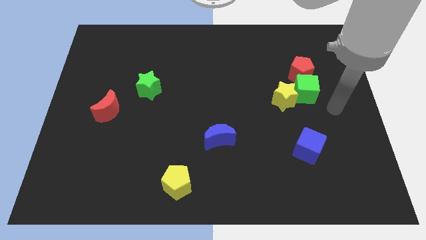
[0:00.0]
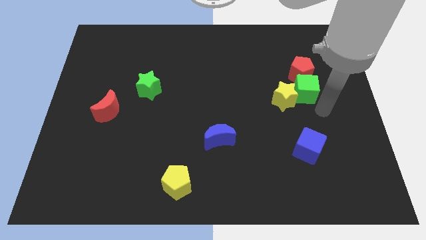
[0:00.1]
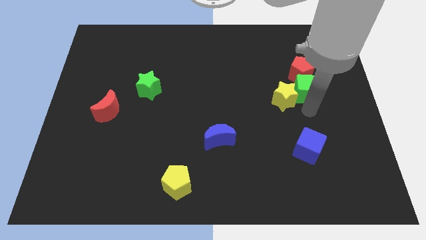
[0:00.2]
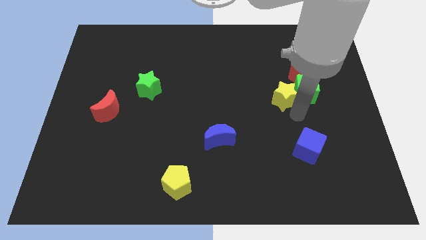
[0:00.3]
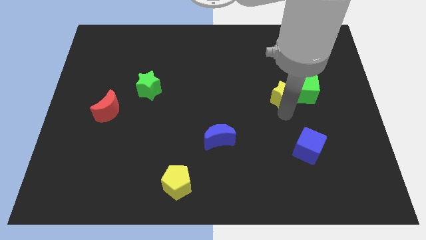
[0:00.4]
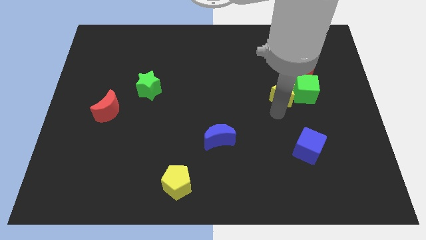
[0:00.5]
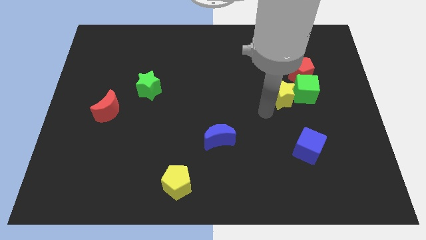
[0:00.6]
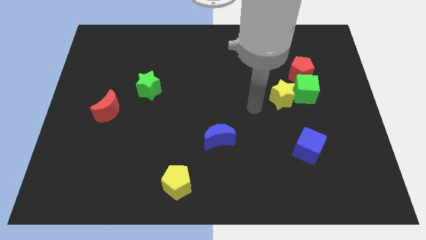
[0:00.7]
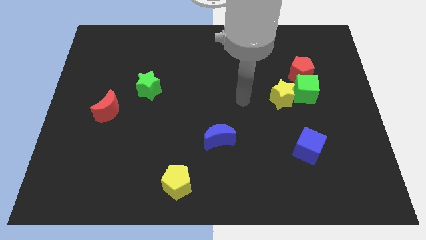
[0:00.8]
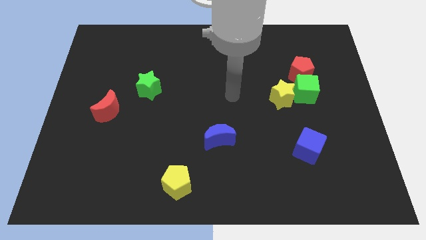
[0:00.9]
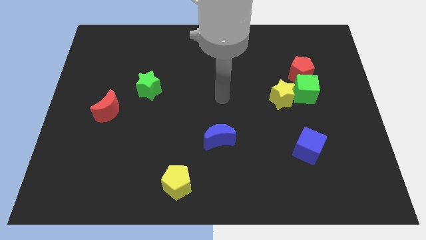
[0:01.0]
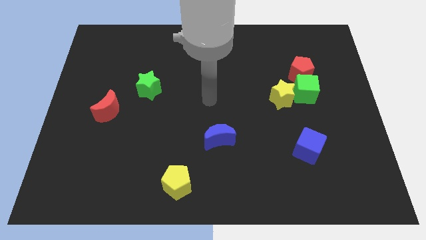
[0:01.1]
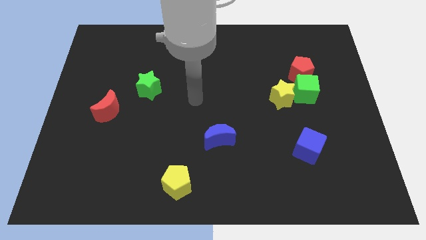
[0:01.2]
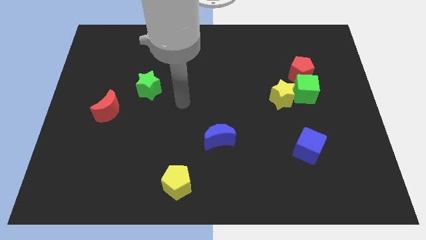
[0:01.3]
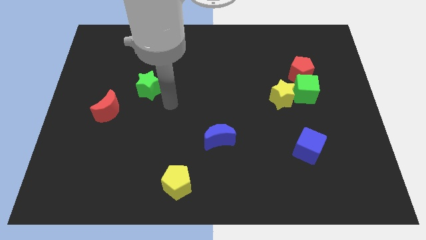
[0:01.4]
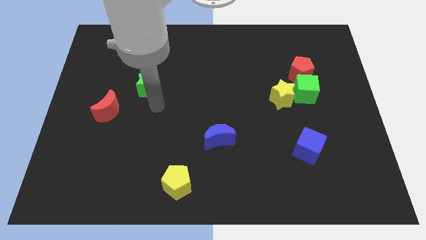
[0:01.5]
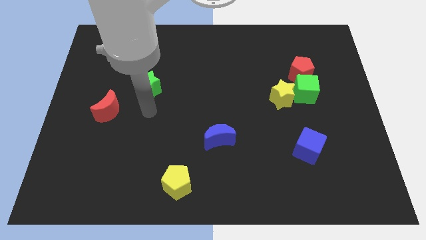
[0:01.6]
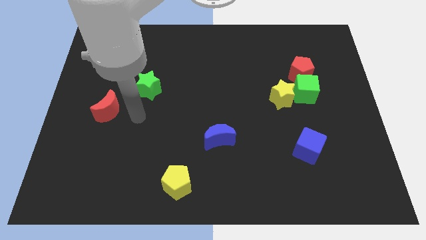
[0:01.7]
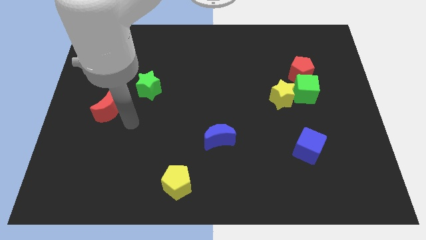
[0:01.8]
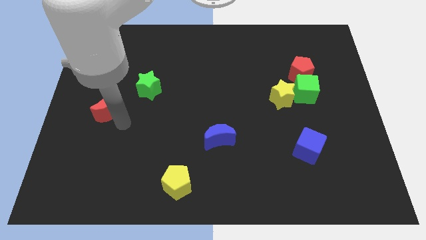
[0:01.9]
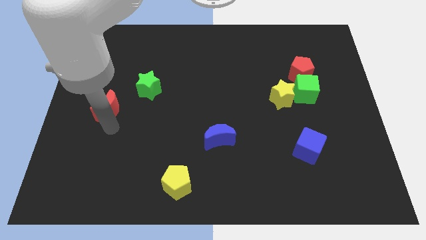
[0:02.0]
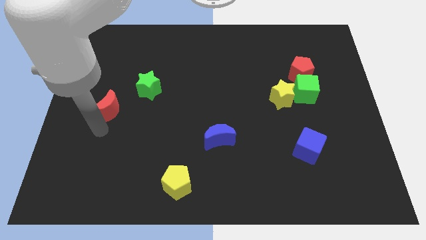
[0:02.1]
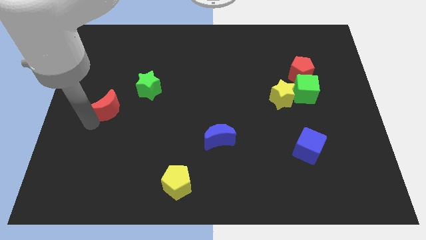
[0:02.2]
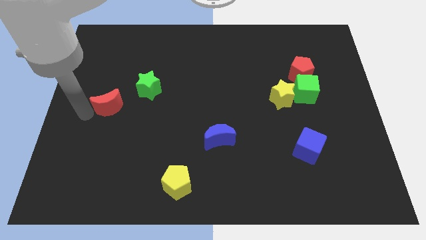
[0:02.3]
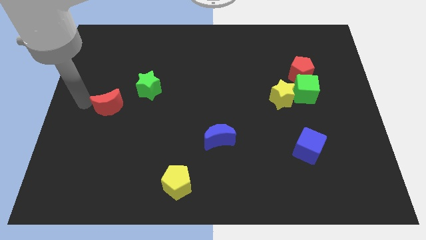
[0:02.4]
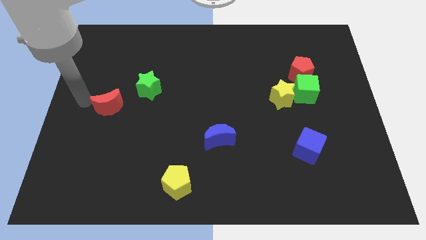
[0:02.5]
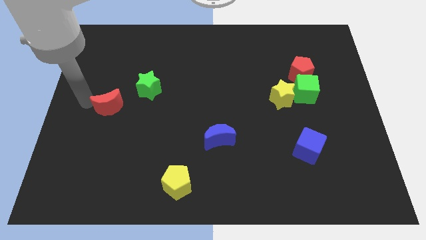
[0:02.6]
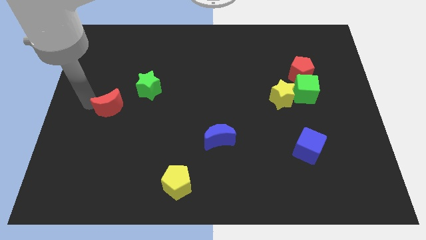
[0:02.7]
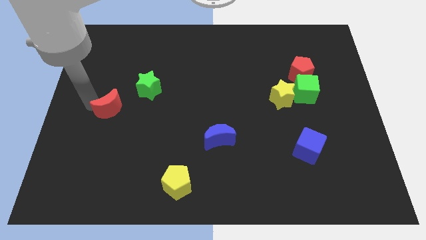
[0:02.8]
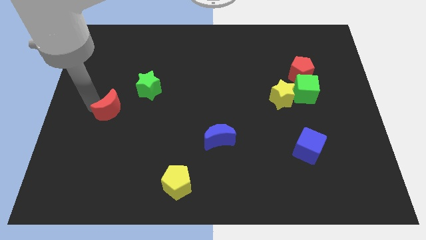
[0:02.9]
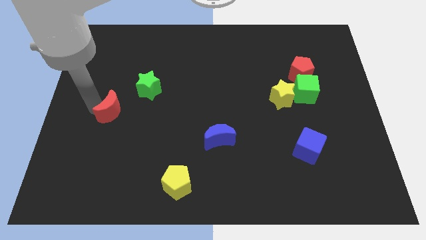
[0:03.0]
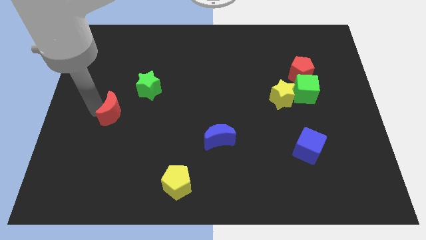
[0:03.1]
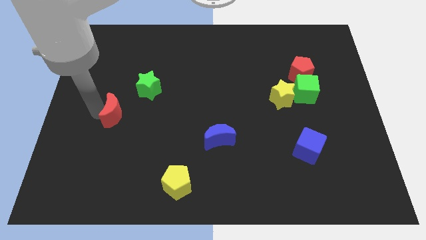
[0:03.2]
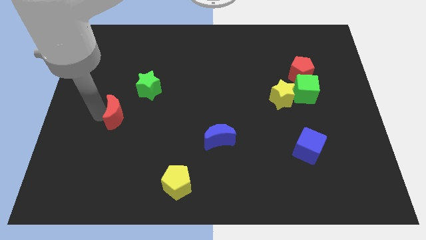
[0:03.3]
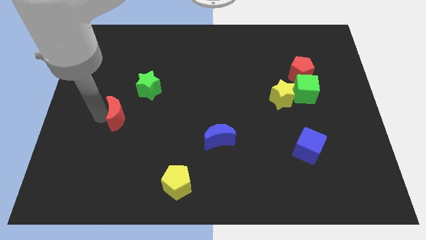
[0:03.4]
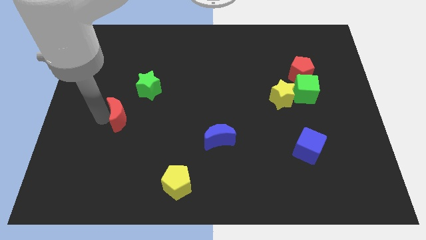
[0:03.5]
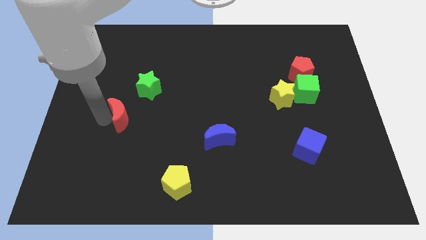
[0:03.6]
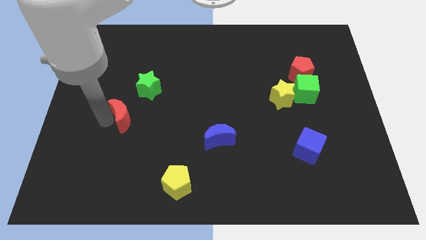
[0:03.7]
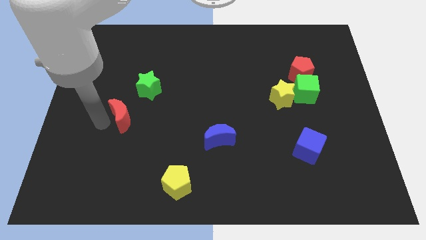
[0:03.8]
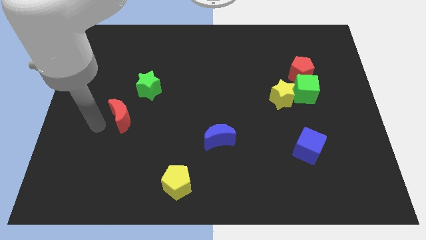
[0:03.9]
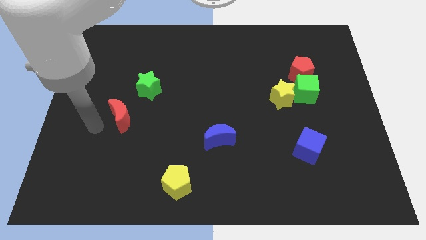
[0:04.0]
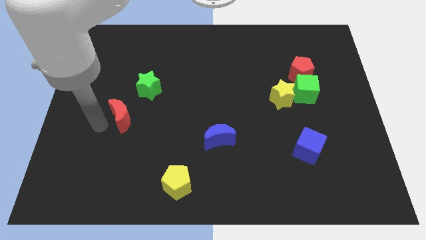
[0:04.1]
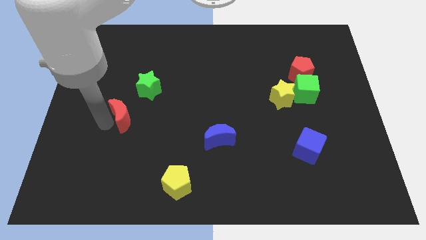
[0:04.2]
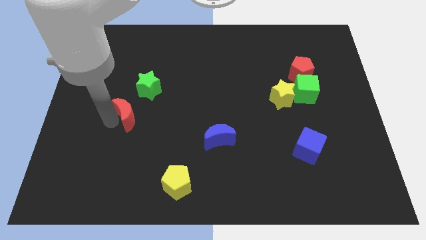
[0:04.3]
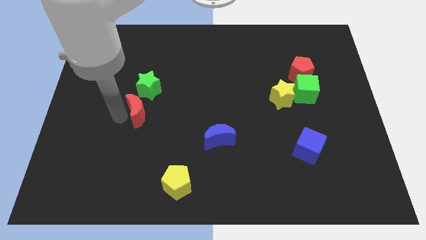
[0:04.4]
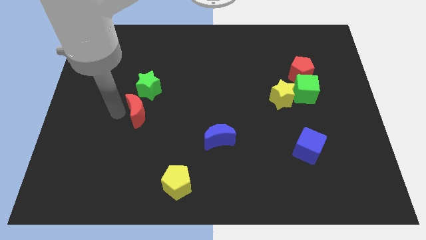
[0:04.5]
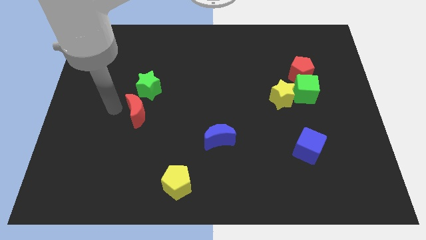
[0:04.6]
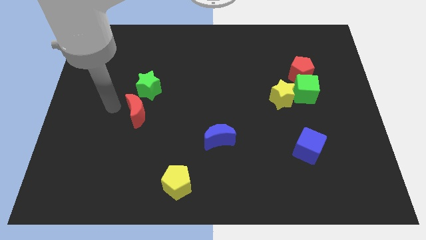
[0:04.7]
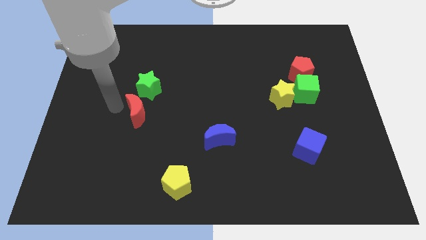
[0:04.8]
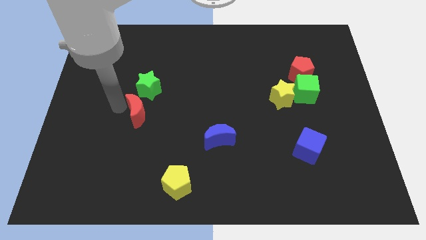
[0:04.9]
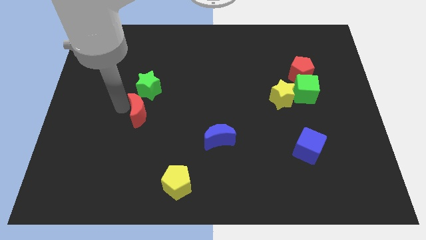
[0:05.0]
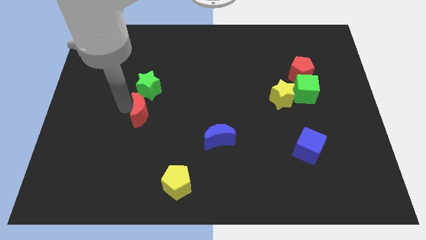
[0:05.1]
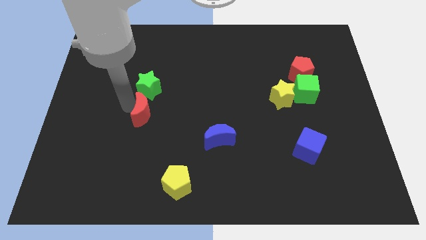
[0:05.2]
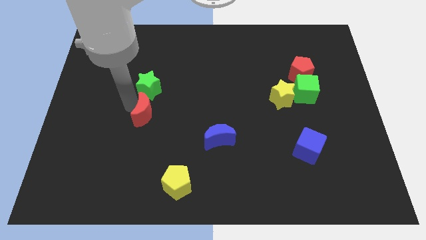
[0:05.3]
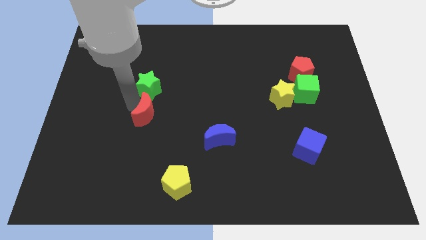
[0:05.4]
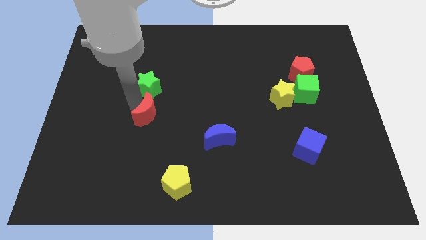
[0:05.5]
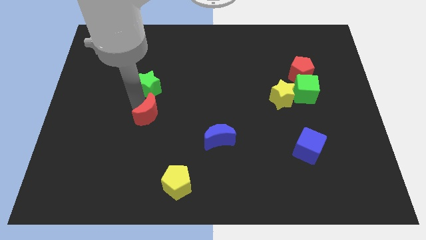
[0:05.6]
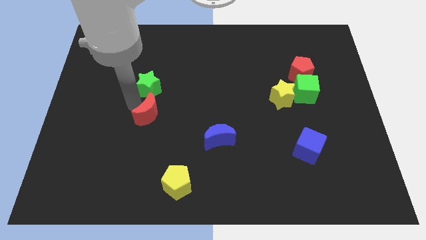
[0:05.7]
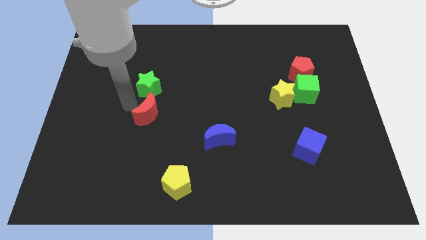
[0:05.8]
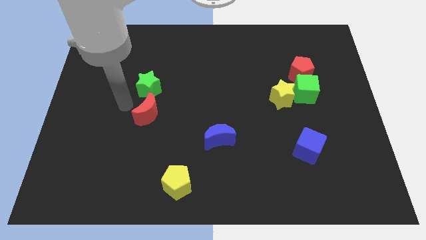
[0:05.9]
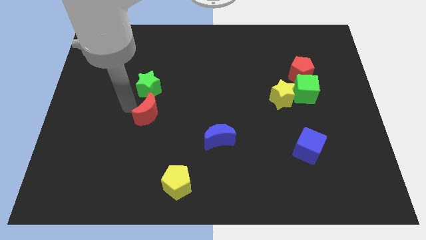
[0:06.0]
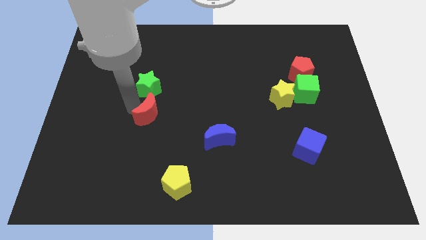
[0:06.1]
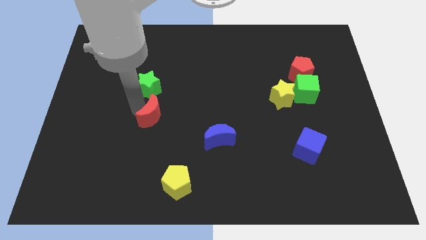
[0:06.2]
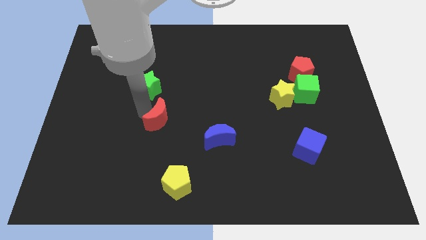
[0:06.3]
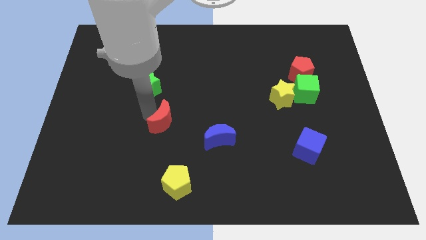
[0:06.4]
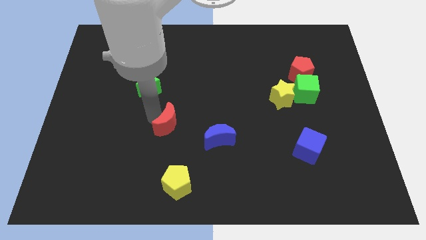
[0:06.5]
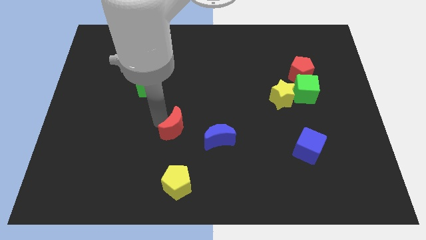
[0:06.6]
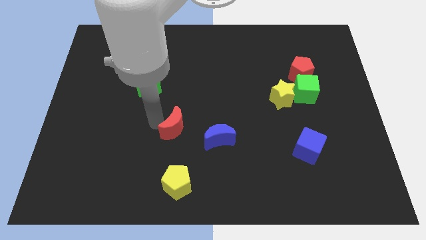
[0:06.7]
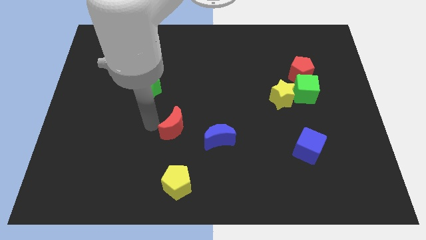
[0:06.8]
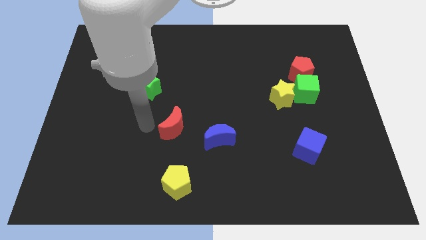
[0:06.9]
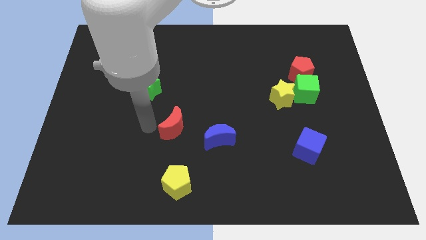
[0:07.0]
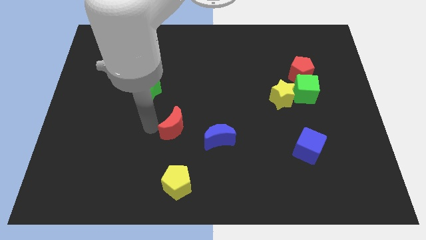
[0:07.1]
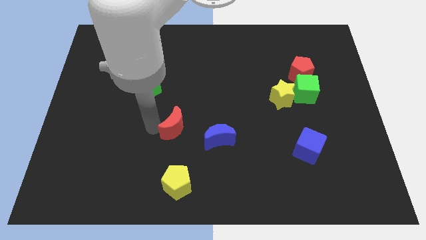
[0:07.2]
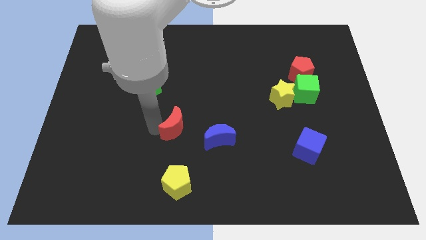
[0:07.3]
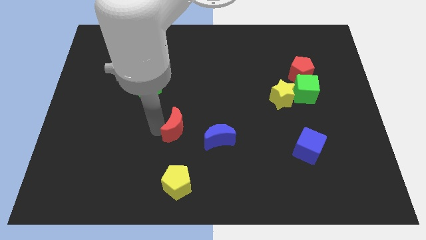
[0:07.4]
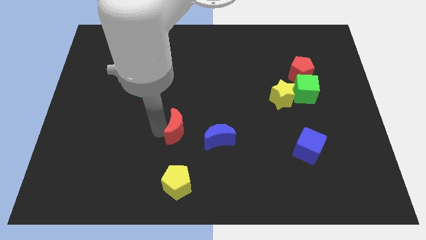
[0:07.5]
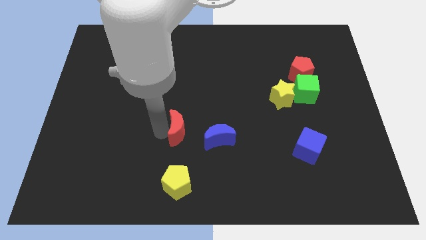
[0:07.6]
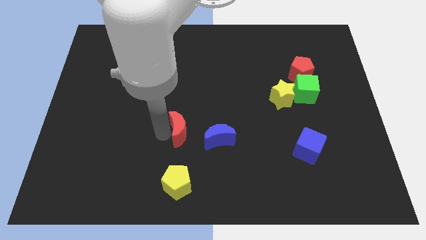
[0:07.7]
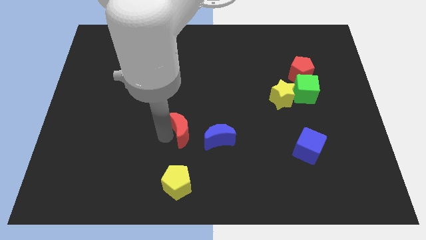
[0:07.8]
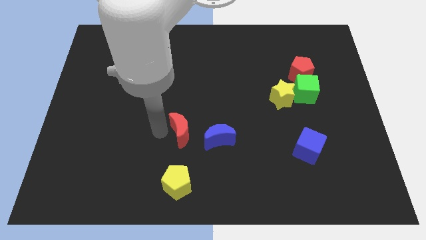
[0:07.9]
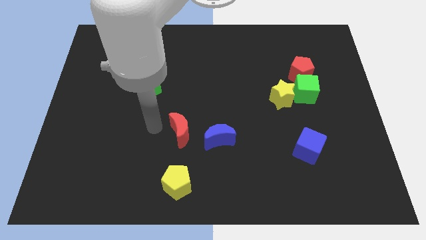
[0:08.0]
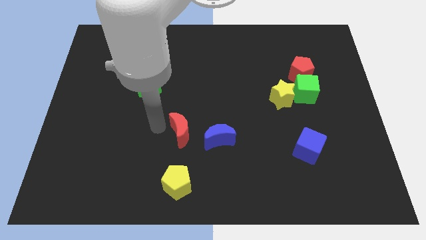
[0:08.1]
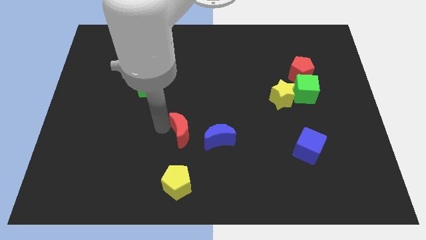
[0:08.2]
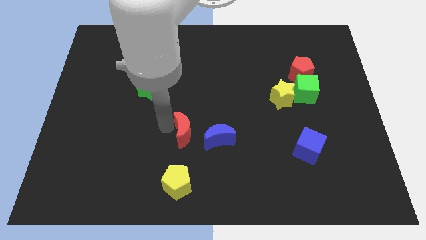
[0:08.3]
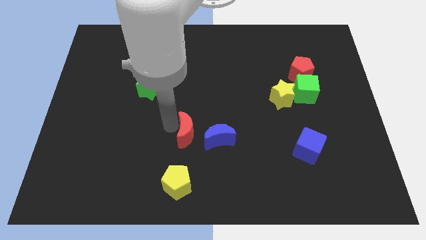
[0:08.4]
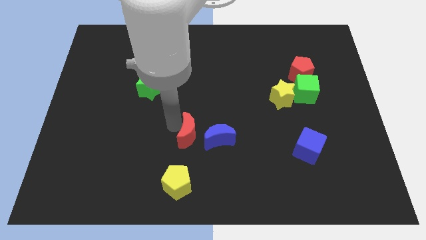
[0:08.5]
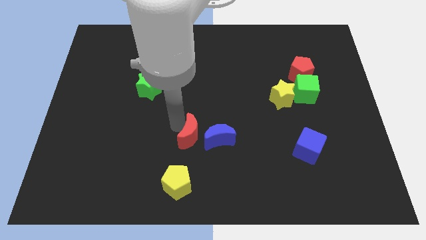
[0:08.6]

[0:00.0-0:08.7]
move the red moon towards the blue moon
